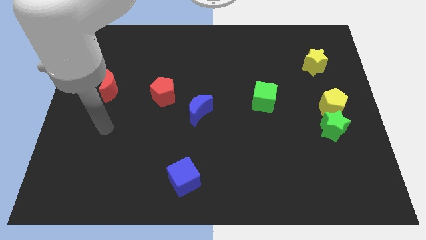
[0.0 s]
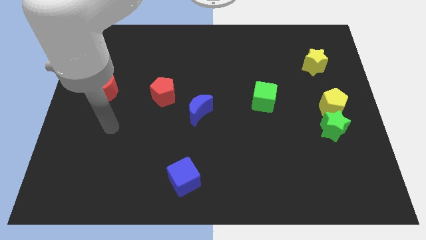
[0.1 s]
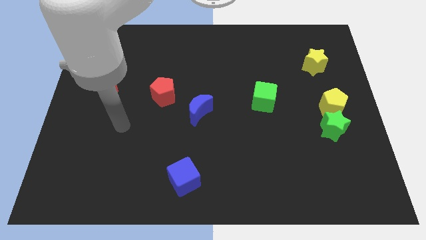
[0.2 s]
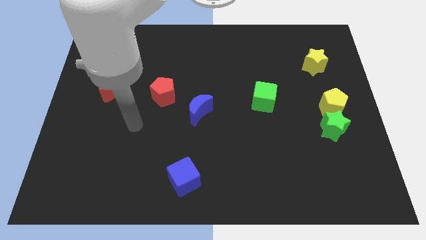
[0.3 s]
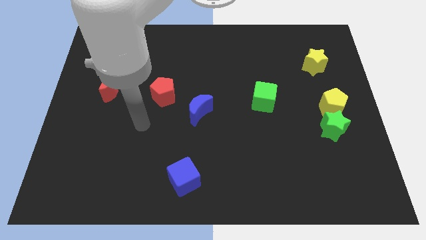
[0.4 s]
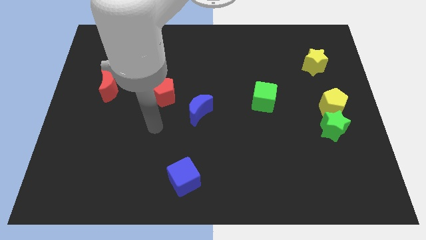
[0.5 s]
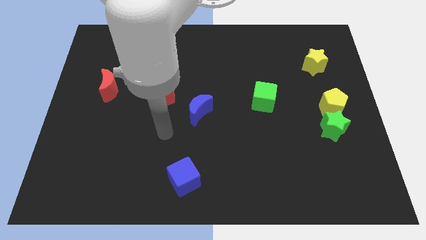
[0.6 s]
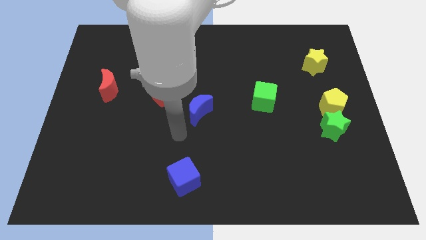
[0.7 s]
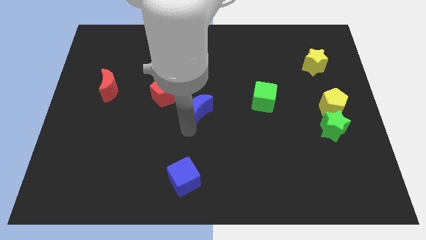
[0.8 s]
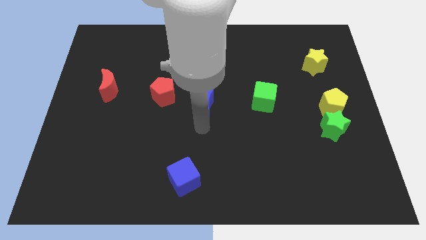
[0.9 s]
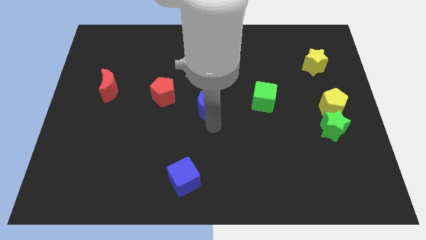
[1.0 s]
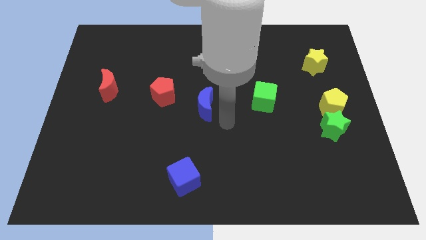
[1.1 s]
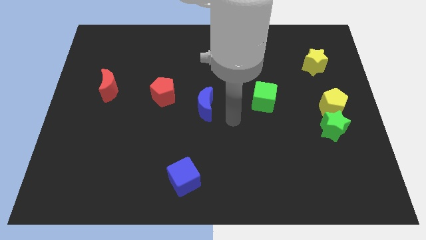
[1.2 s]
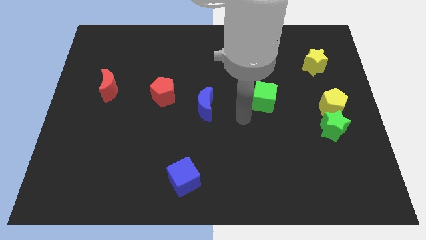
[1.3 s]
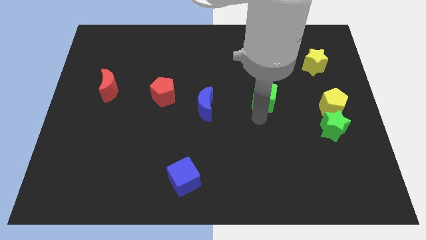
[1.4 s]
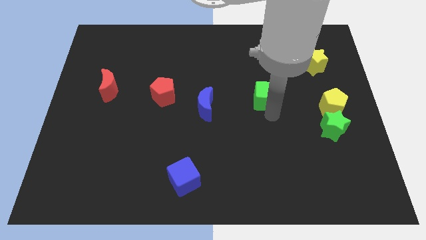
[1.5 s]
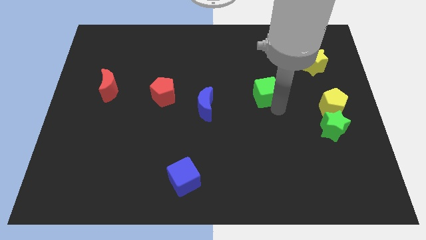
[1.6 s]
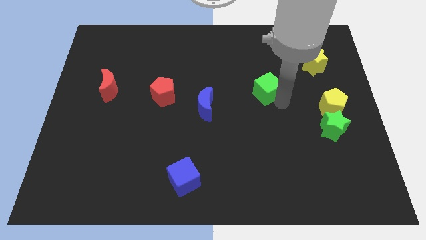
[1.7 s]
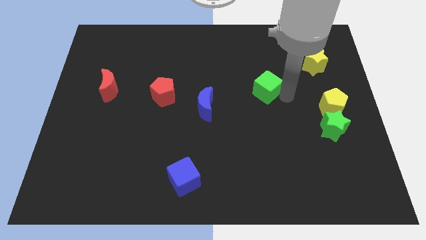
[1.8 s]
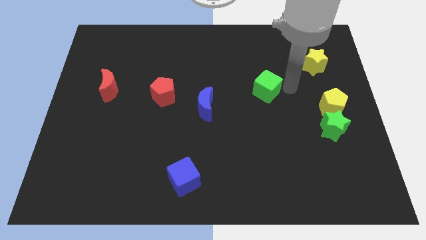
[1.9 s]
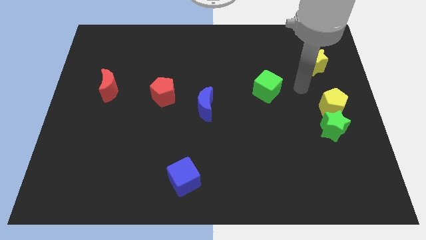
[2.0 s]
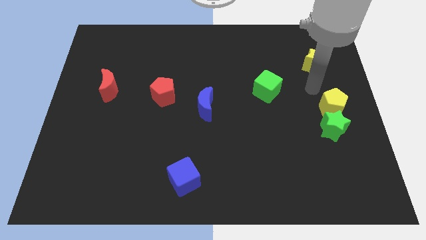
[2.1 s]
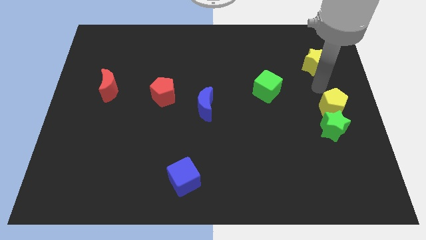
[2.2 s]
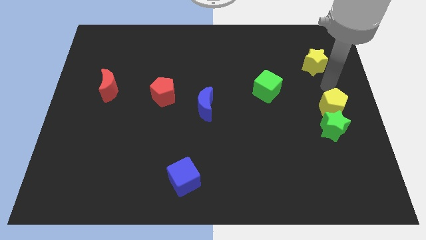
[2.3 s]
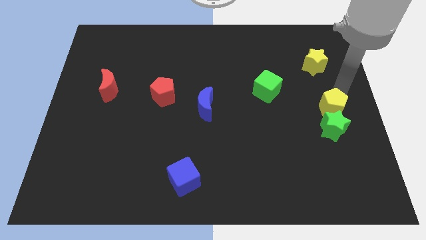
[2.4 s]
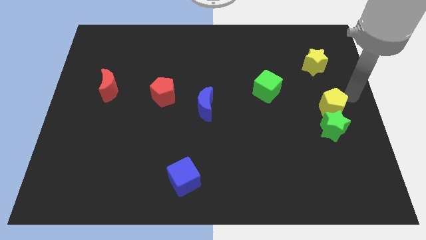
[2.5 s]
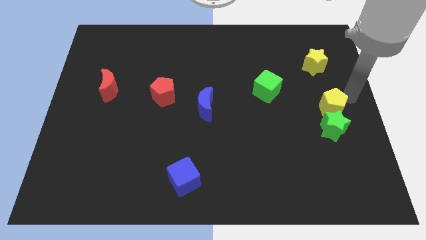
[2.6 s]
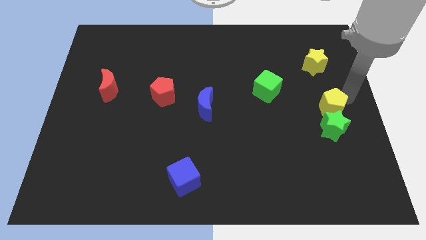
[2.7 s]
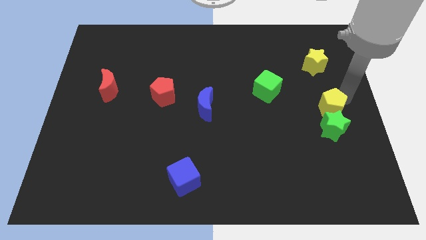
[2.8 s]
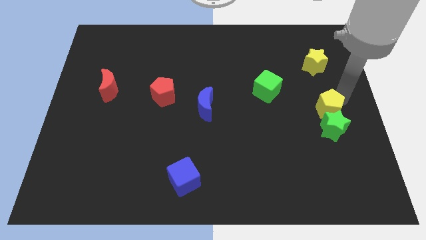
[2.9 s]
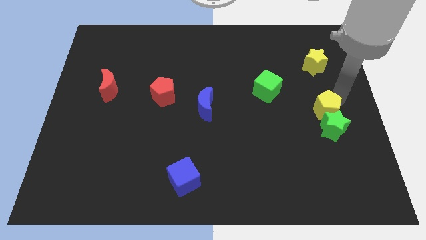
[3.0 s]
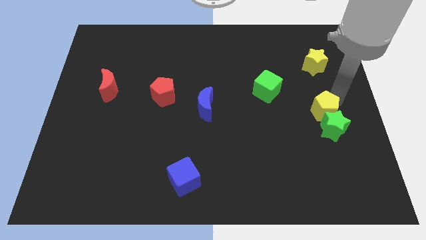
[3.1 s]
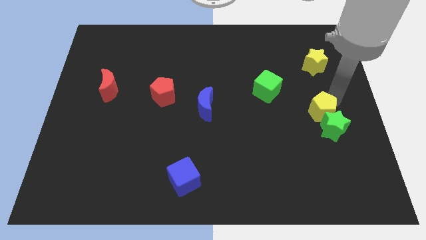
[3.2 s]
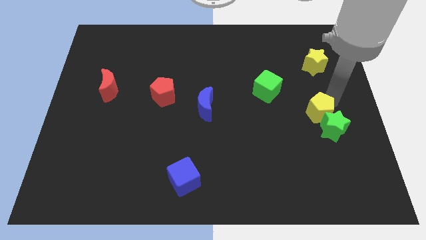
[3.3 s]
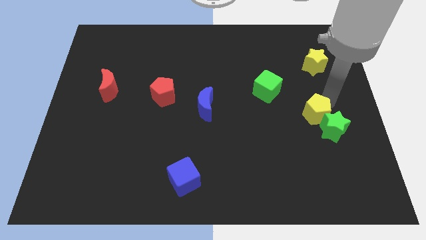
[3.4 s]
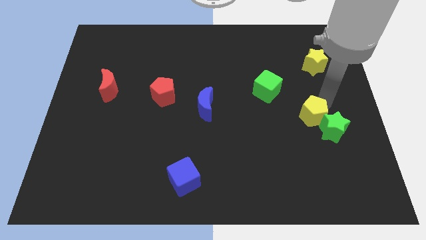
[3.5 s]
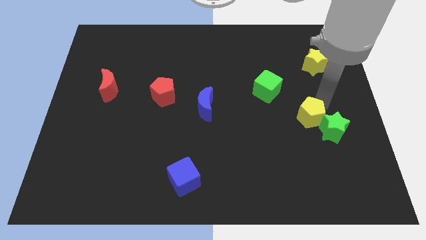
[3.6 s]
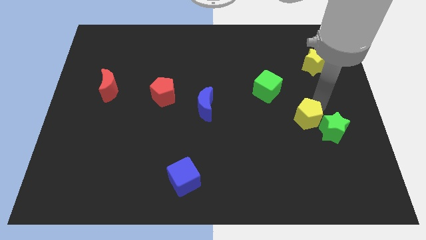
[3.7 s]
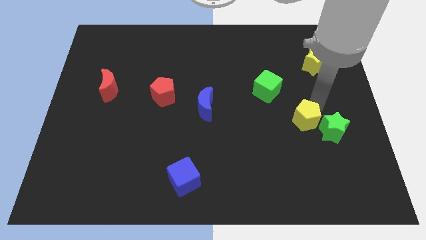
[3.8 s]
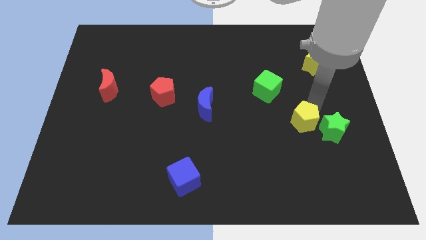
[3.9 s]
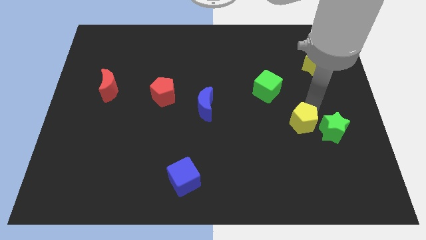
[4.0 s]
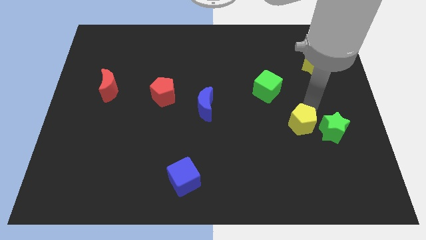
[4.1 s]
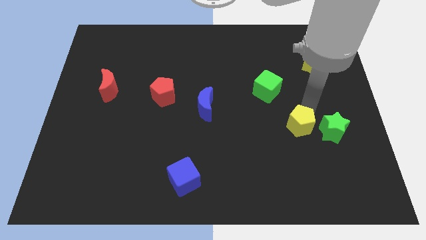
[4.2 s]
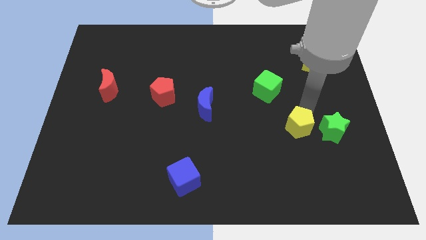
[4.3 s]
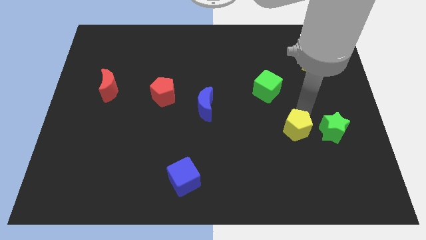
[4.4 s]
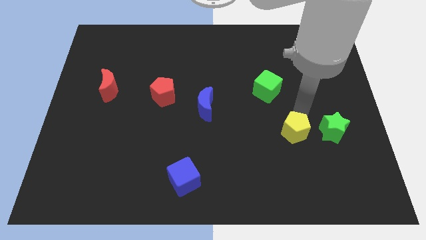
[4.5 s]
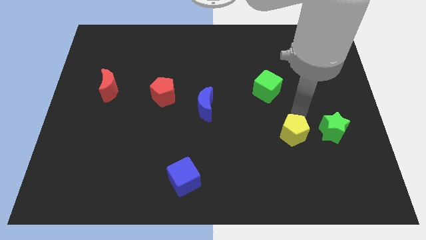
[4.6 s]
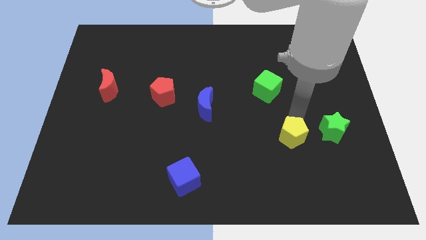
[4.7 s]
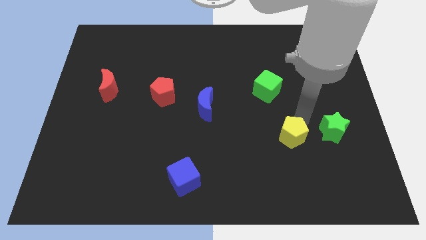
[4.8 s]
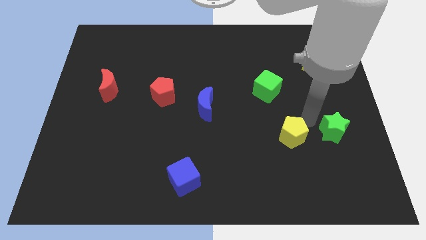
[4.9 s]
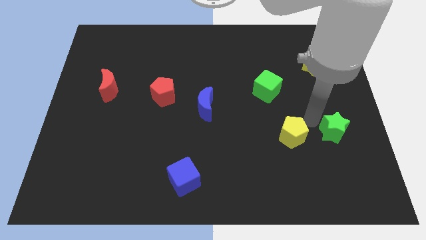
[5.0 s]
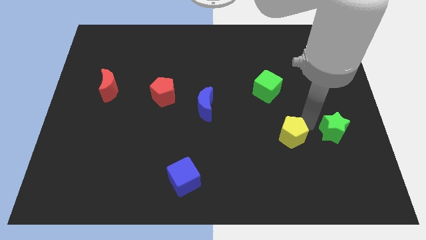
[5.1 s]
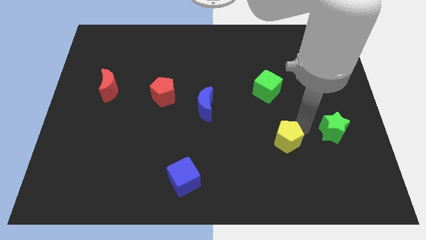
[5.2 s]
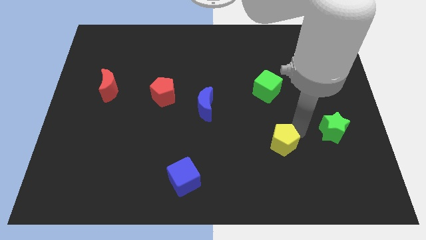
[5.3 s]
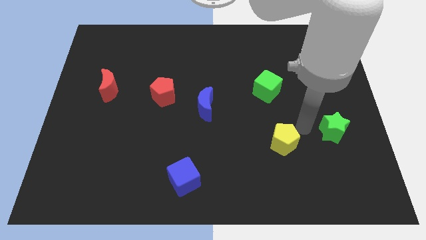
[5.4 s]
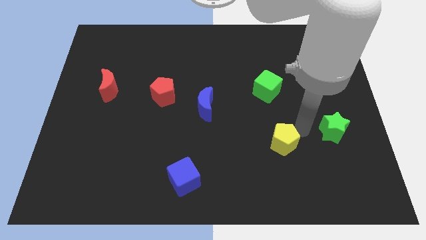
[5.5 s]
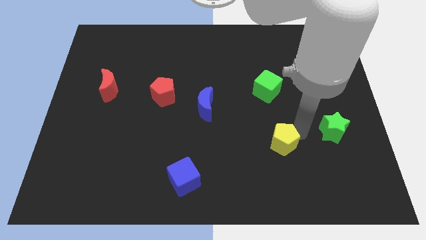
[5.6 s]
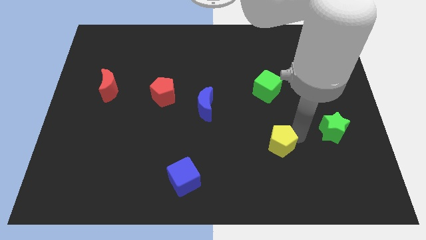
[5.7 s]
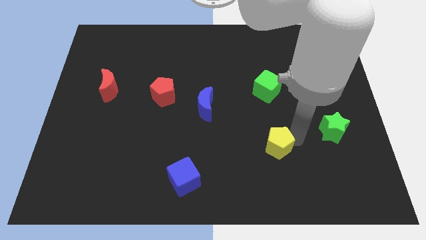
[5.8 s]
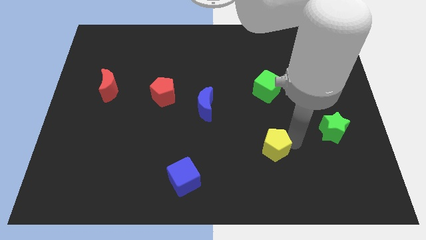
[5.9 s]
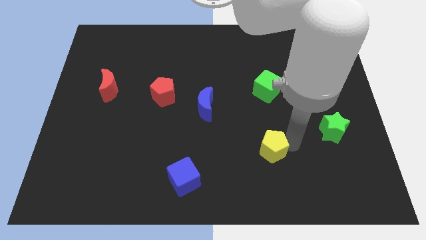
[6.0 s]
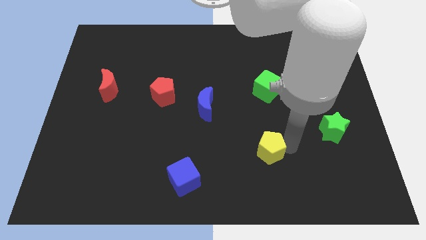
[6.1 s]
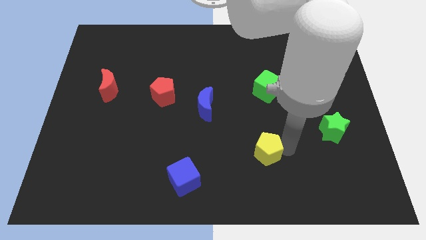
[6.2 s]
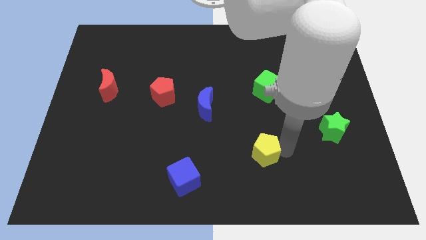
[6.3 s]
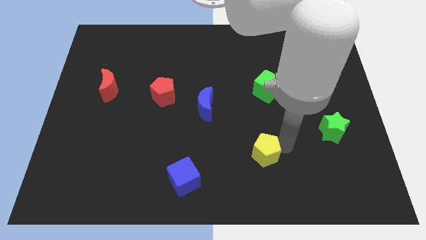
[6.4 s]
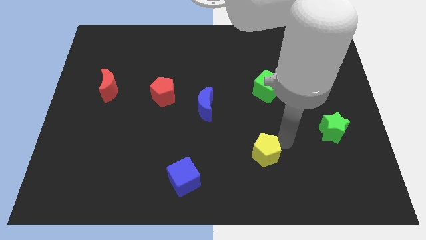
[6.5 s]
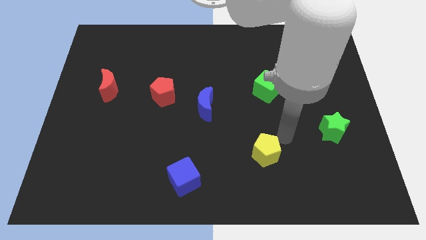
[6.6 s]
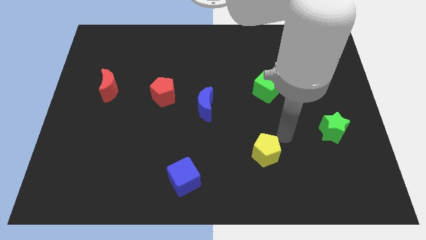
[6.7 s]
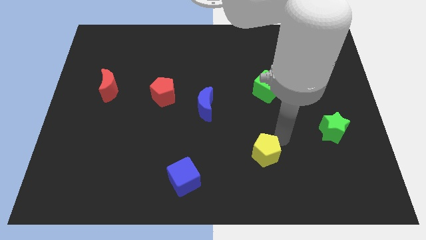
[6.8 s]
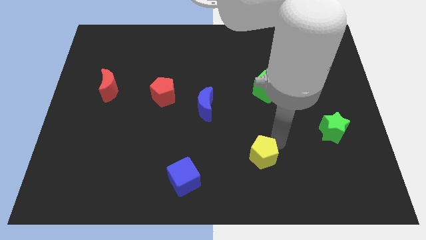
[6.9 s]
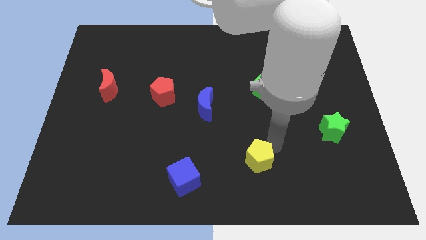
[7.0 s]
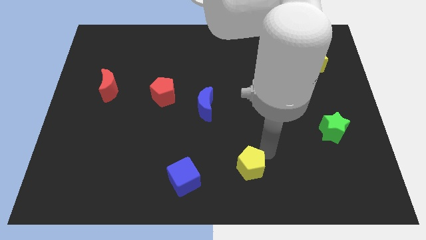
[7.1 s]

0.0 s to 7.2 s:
put the yellow pentagon to the bottom side
